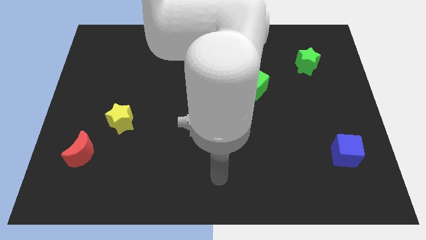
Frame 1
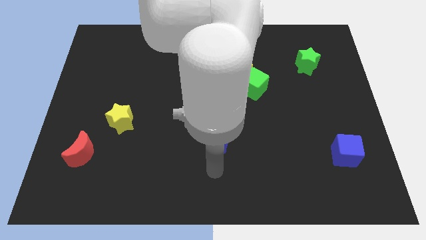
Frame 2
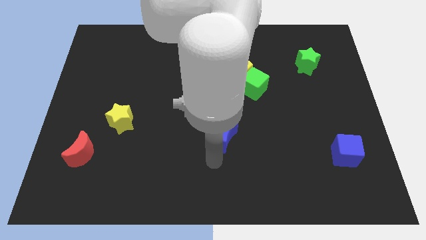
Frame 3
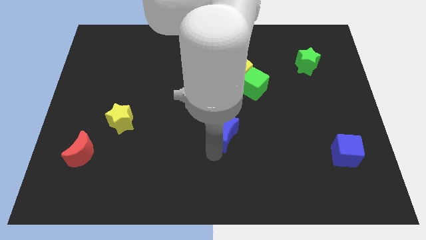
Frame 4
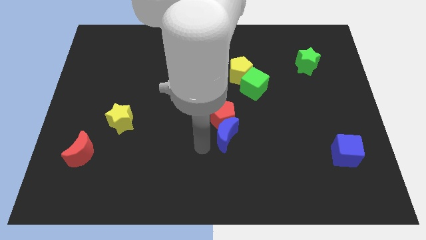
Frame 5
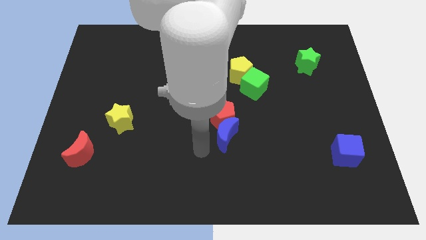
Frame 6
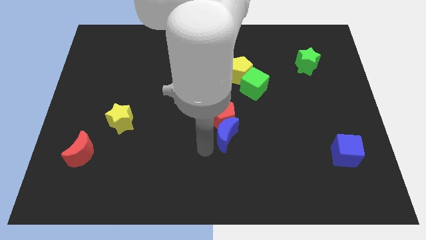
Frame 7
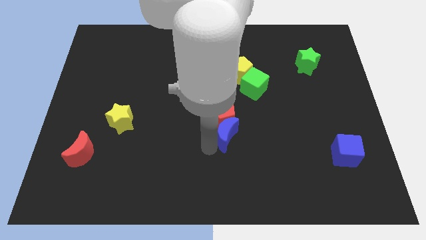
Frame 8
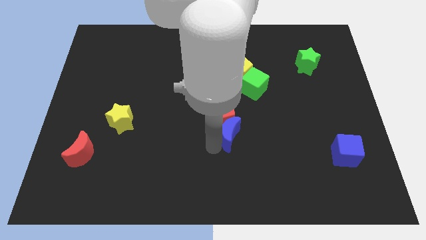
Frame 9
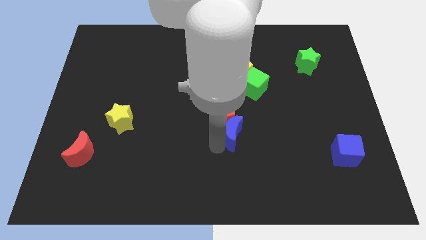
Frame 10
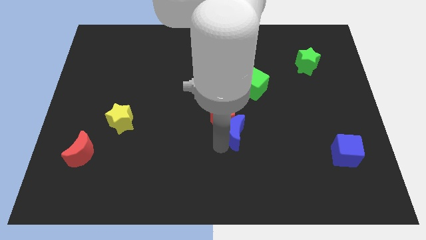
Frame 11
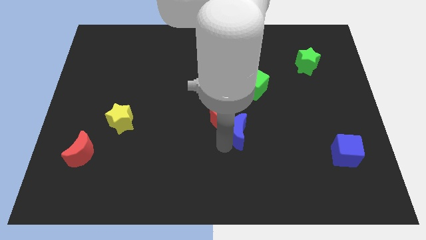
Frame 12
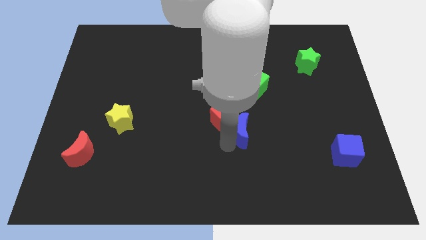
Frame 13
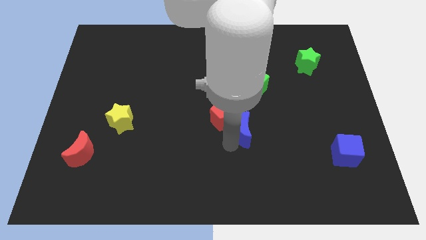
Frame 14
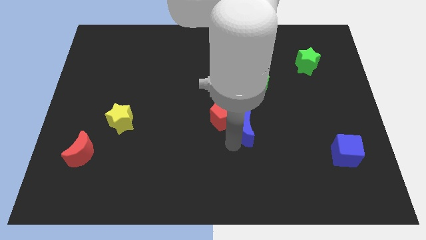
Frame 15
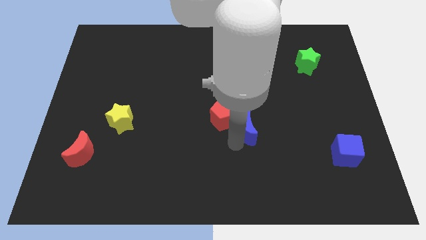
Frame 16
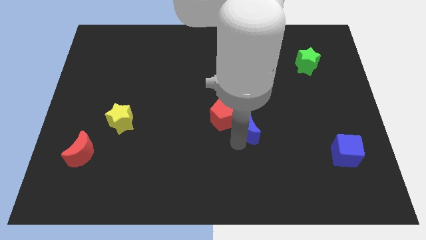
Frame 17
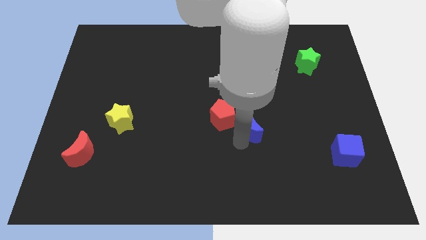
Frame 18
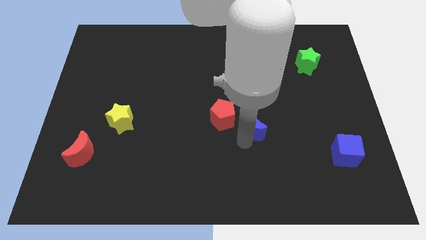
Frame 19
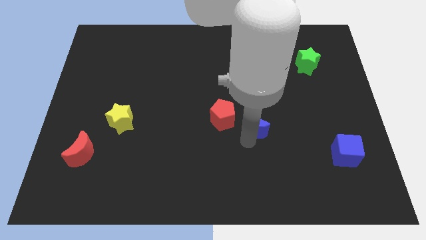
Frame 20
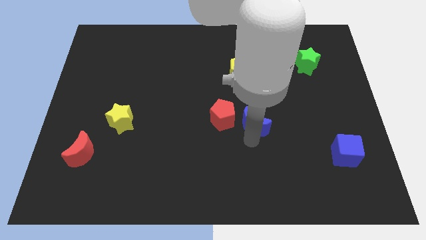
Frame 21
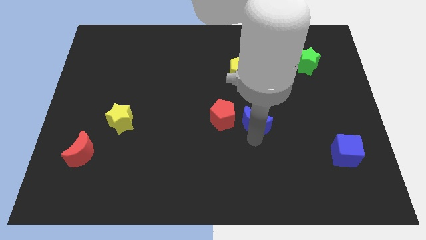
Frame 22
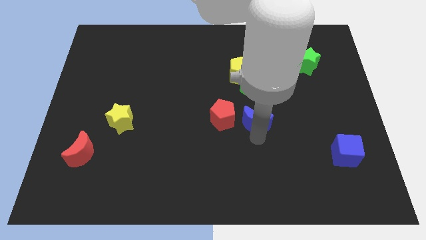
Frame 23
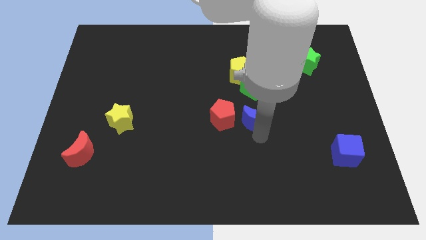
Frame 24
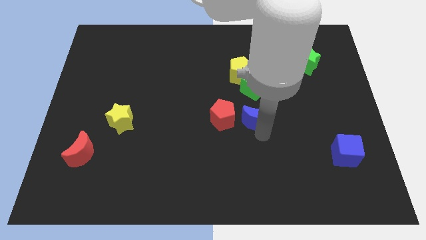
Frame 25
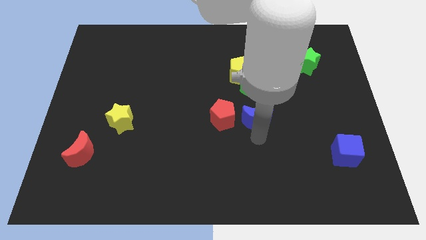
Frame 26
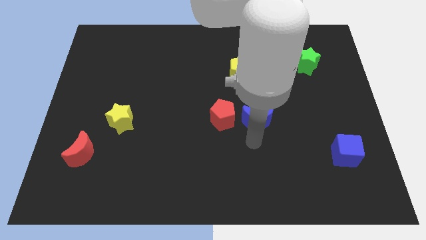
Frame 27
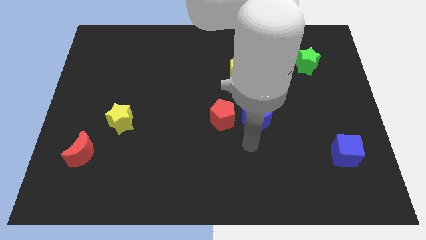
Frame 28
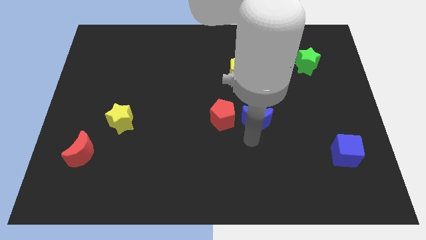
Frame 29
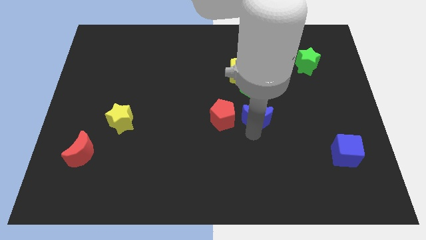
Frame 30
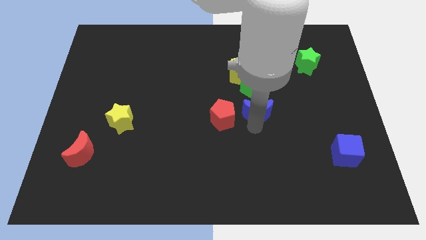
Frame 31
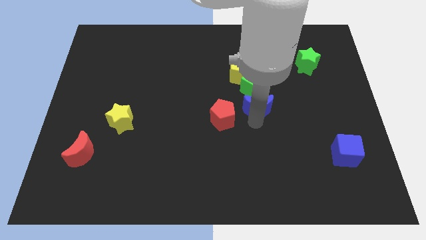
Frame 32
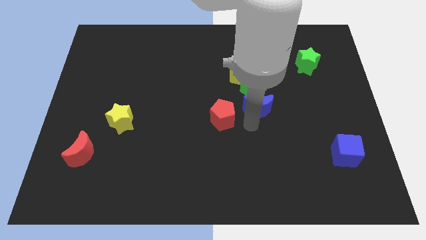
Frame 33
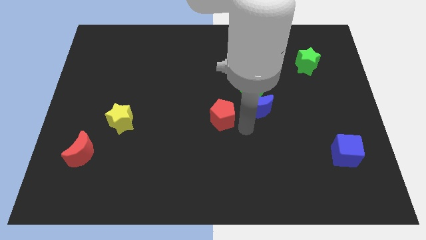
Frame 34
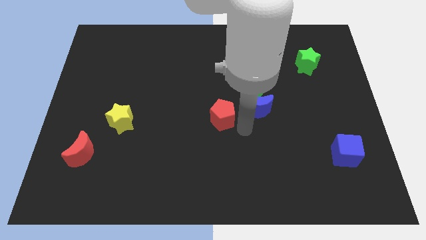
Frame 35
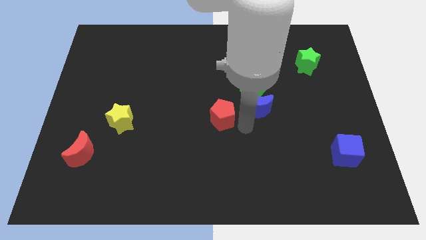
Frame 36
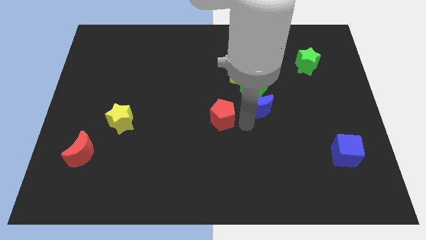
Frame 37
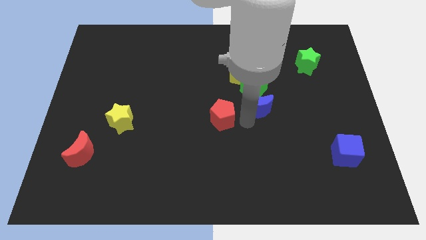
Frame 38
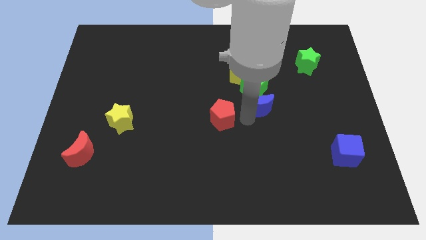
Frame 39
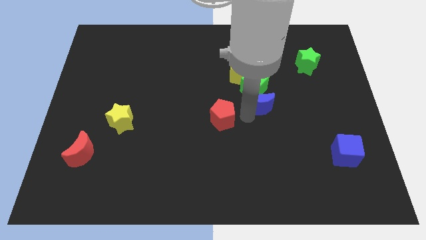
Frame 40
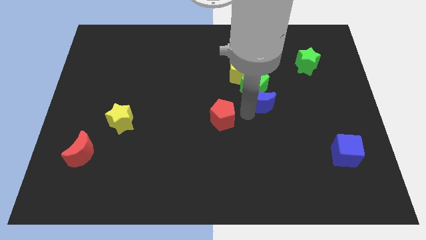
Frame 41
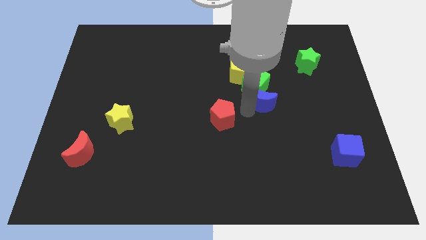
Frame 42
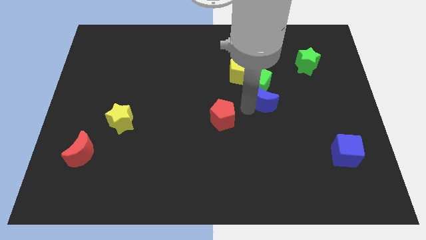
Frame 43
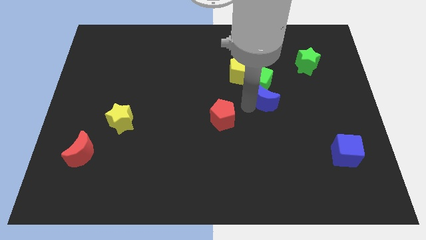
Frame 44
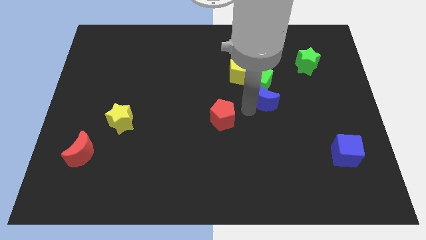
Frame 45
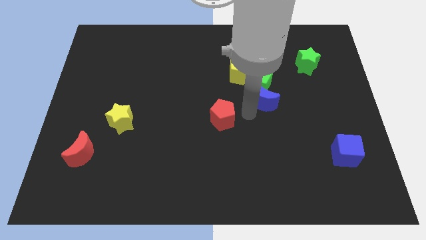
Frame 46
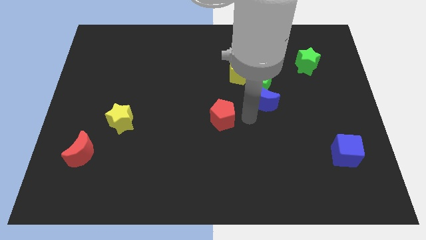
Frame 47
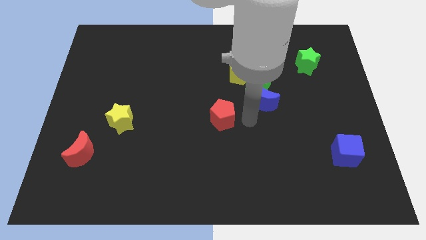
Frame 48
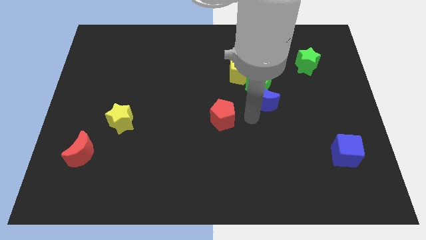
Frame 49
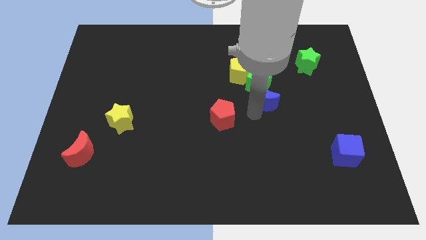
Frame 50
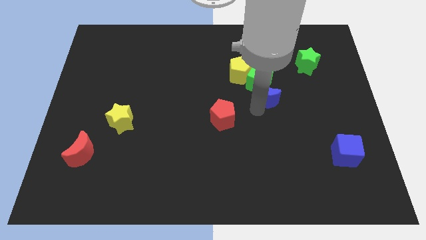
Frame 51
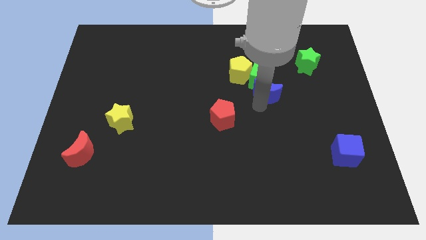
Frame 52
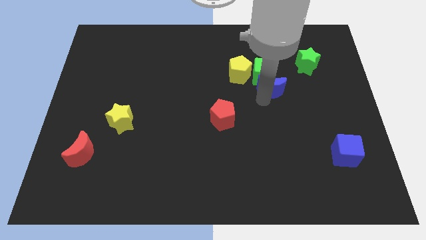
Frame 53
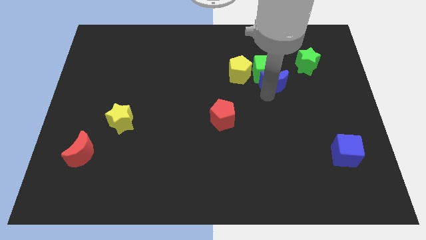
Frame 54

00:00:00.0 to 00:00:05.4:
put the blue moon just right of the yellow pentagon

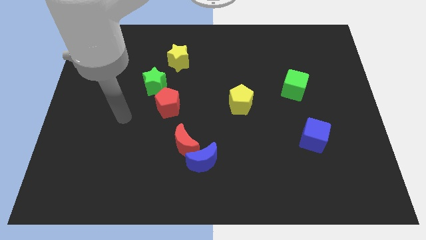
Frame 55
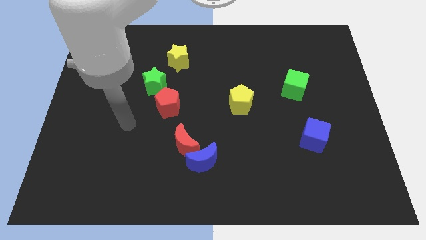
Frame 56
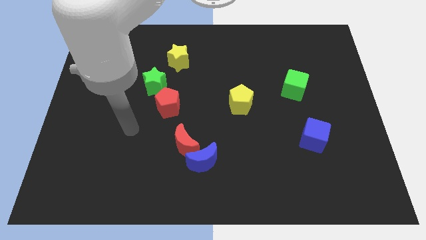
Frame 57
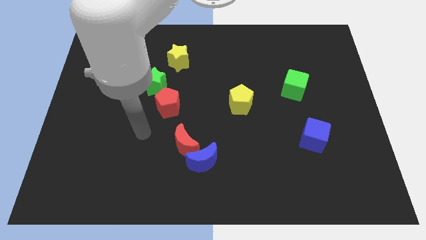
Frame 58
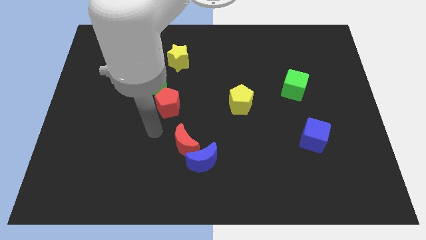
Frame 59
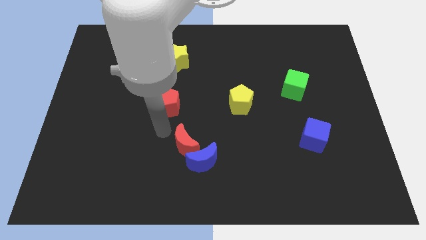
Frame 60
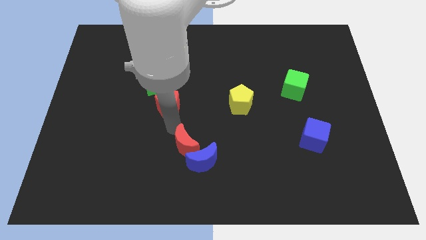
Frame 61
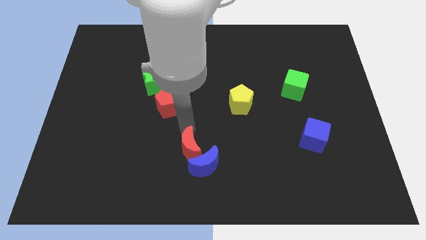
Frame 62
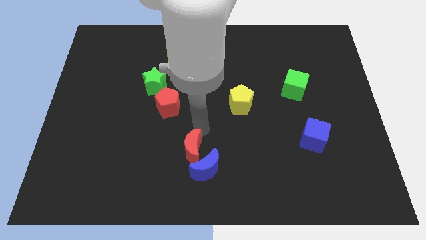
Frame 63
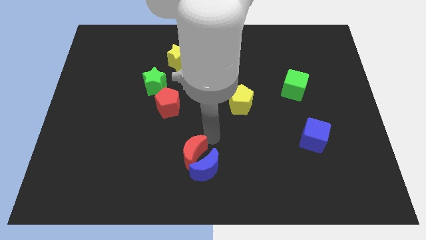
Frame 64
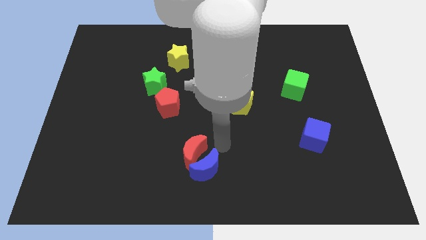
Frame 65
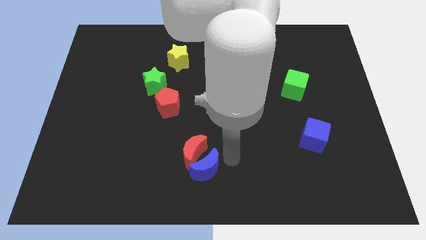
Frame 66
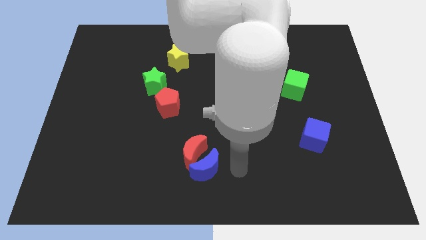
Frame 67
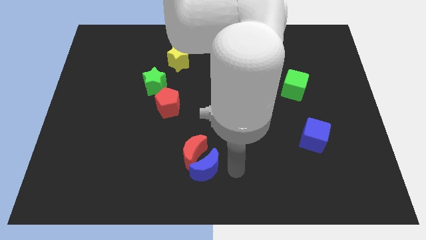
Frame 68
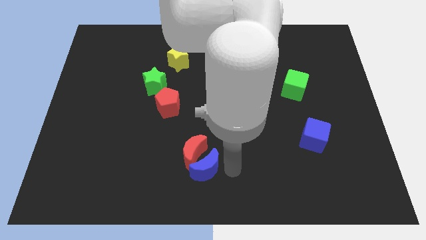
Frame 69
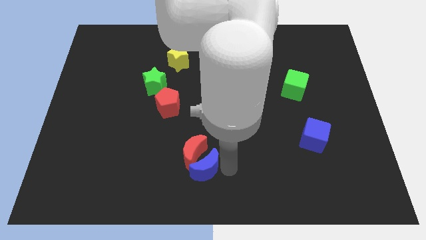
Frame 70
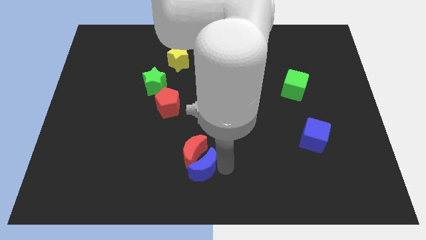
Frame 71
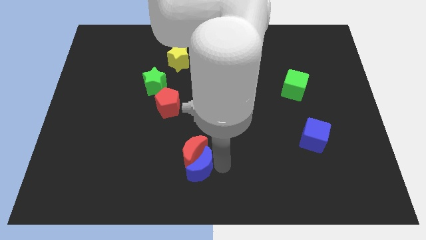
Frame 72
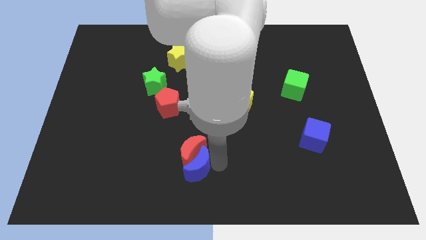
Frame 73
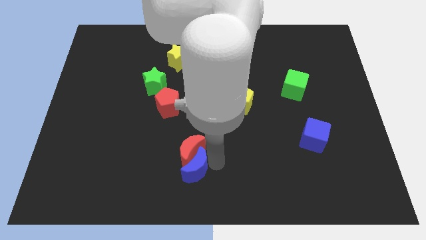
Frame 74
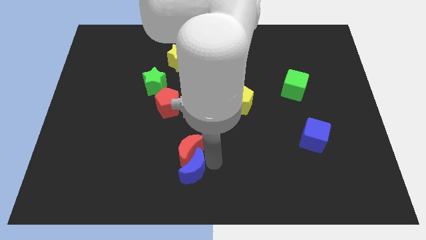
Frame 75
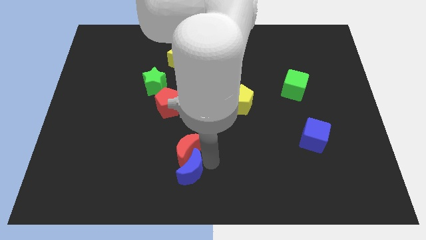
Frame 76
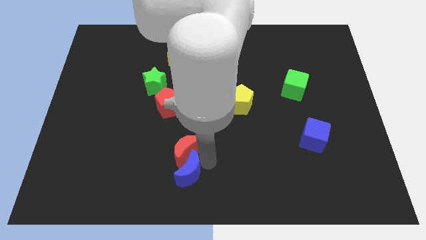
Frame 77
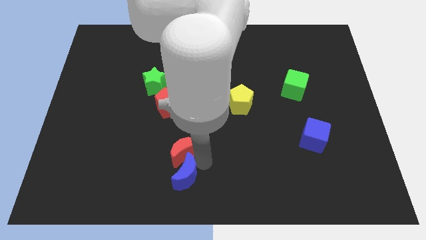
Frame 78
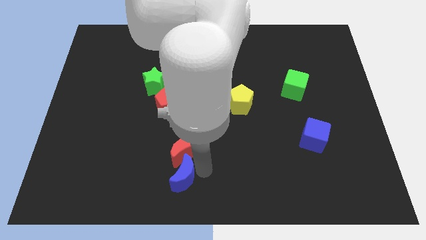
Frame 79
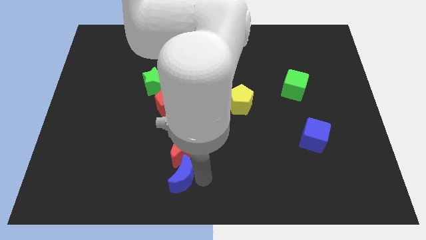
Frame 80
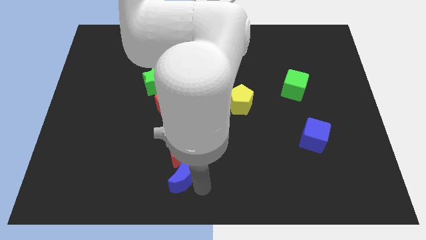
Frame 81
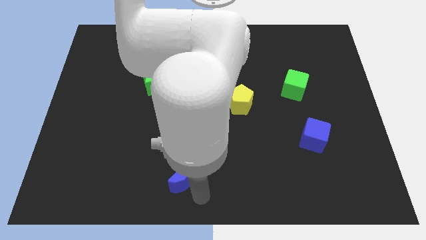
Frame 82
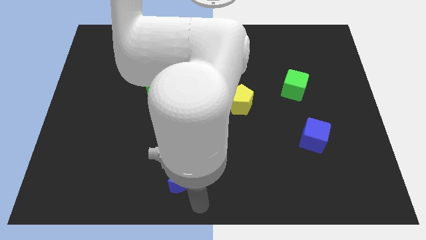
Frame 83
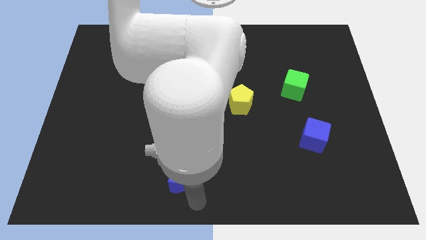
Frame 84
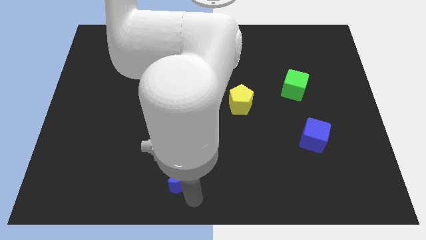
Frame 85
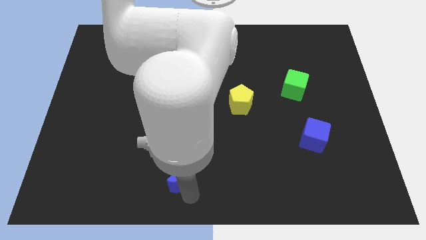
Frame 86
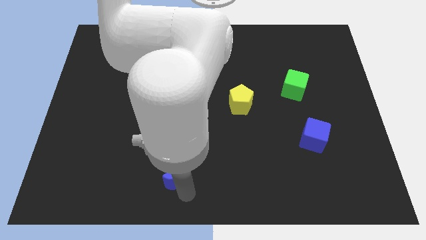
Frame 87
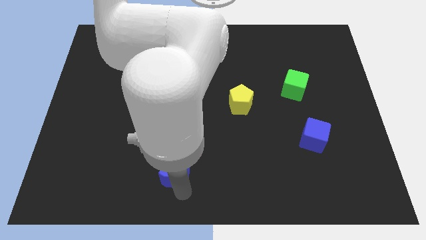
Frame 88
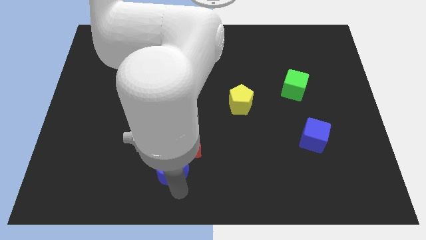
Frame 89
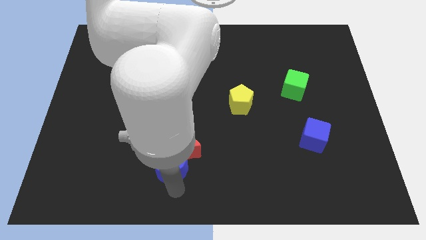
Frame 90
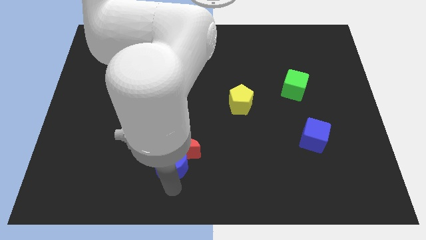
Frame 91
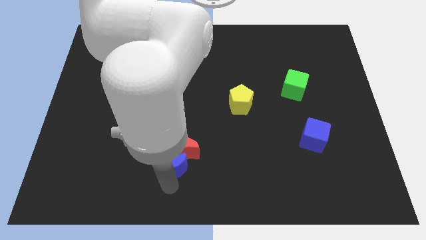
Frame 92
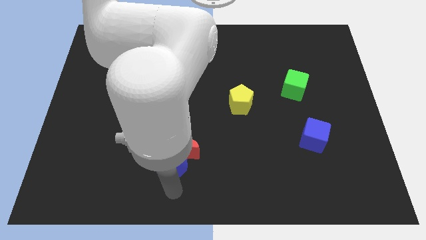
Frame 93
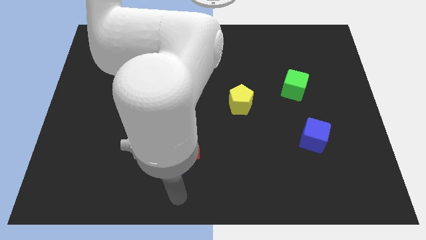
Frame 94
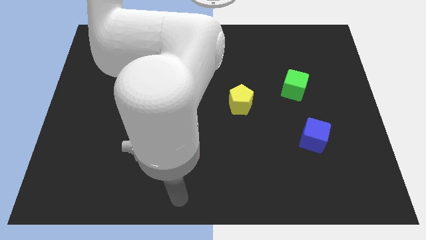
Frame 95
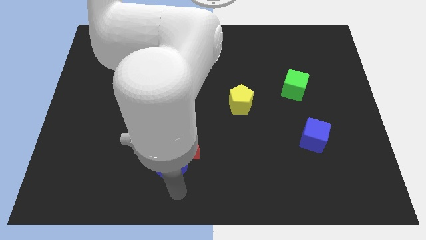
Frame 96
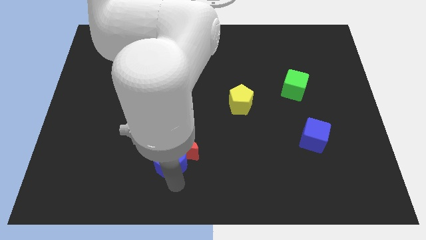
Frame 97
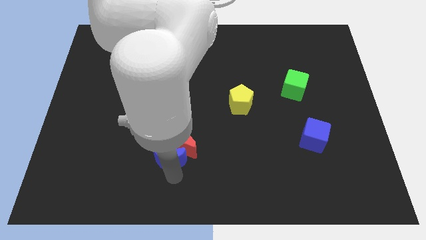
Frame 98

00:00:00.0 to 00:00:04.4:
slide the blue moon to the bottom side of the red pentagon
